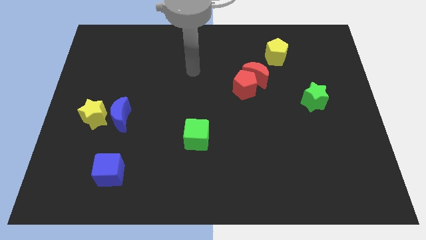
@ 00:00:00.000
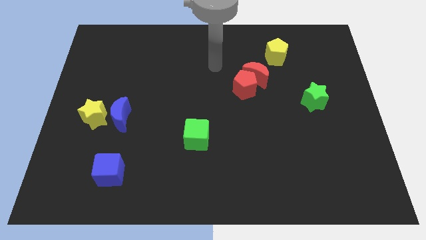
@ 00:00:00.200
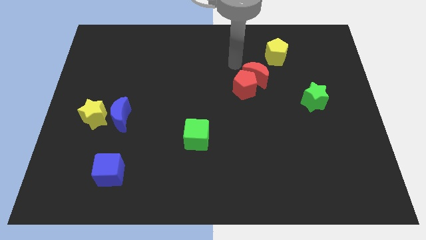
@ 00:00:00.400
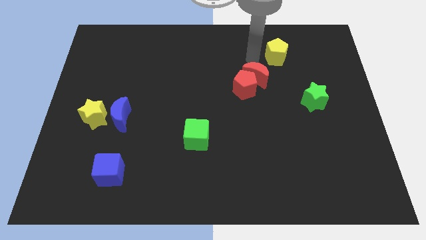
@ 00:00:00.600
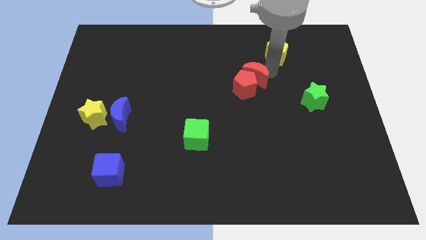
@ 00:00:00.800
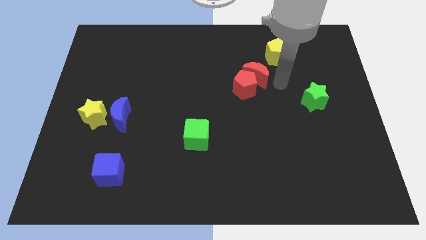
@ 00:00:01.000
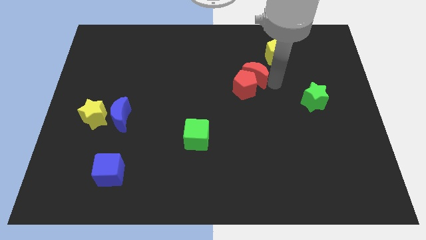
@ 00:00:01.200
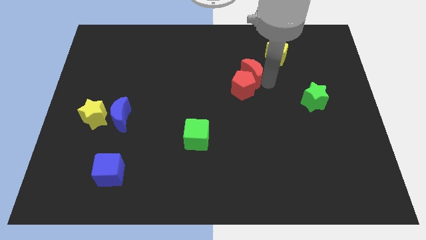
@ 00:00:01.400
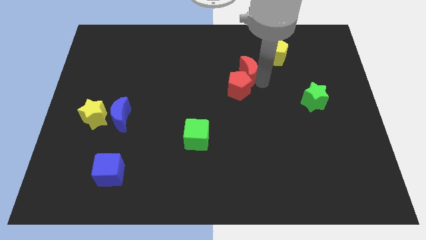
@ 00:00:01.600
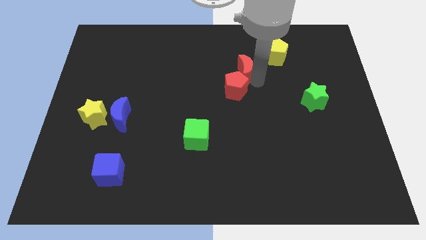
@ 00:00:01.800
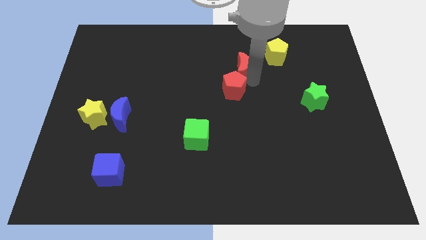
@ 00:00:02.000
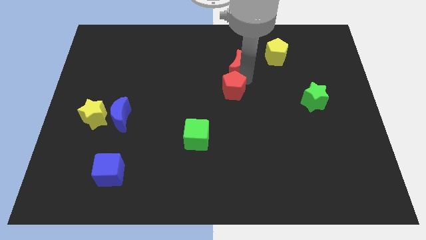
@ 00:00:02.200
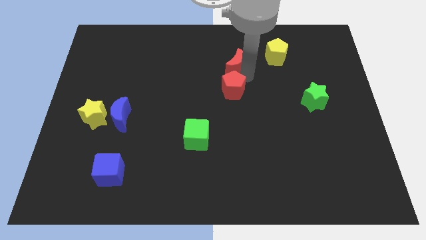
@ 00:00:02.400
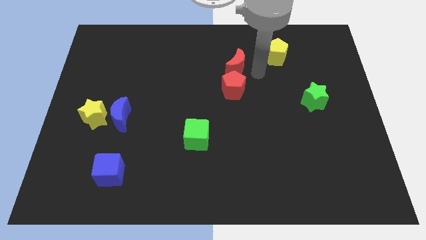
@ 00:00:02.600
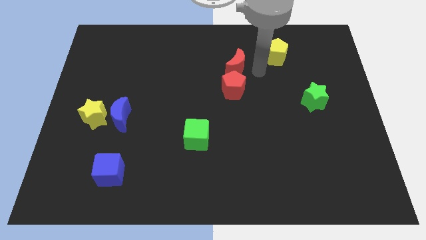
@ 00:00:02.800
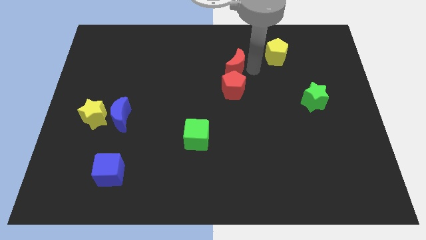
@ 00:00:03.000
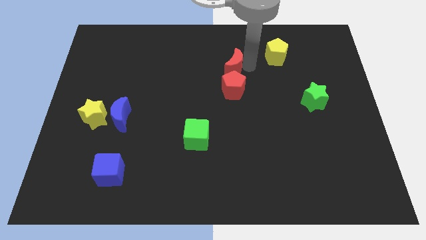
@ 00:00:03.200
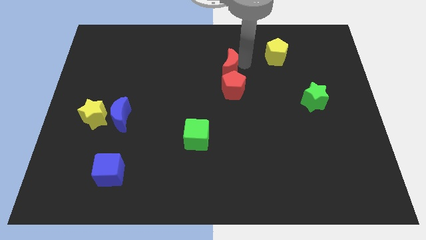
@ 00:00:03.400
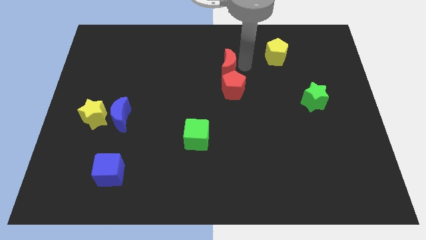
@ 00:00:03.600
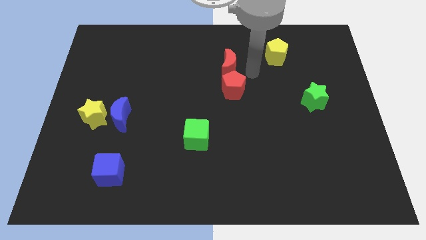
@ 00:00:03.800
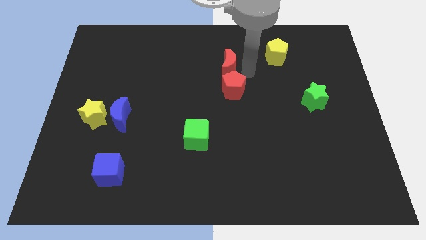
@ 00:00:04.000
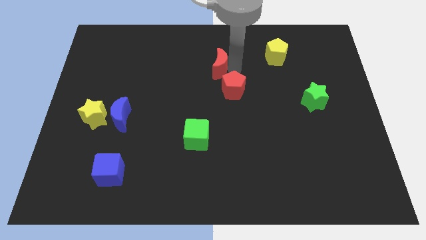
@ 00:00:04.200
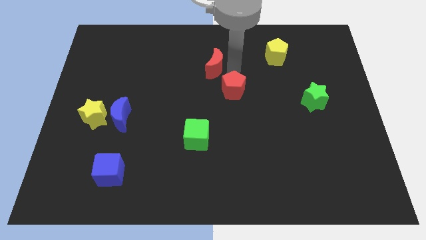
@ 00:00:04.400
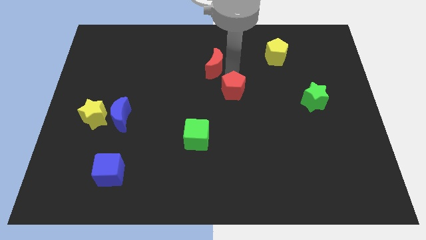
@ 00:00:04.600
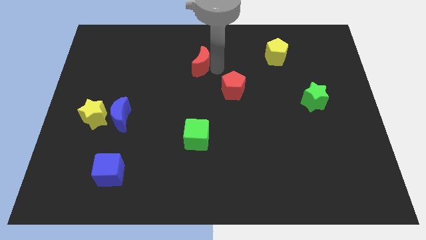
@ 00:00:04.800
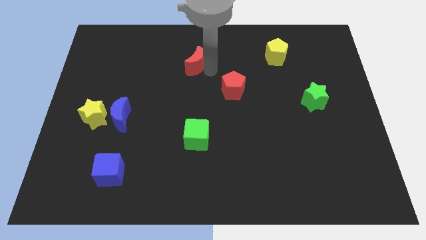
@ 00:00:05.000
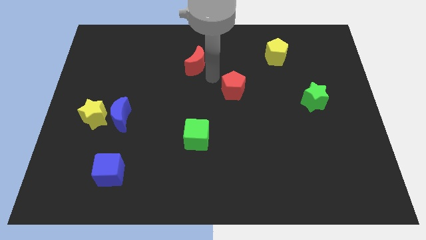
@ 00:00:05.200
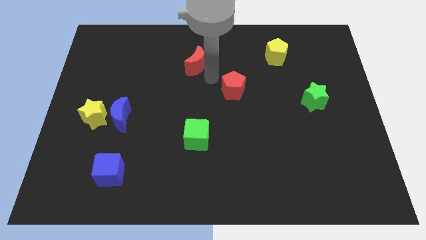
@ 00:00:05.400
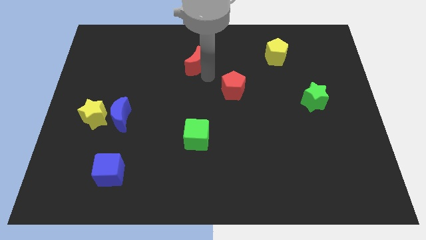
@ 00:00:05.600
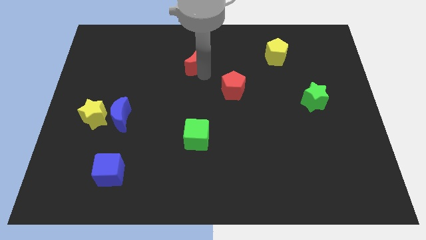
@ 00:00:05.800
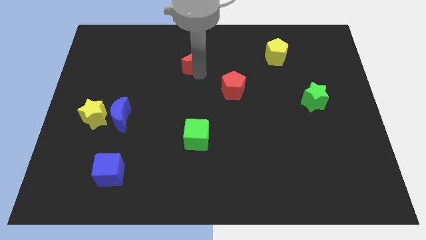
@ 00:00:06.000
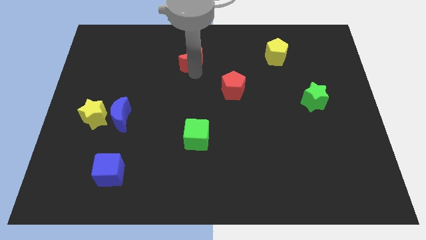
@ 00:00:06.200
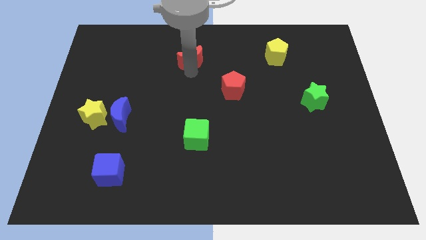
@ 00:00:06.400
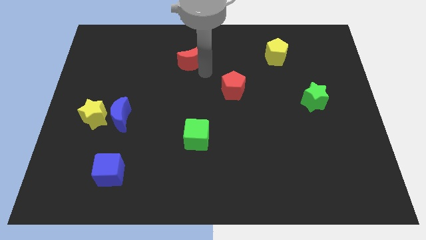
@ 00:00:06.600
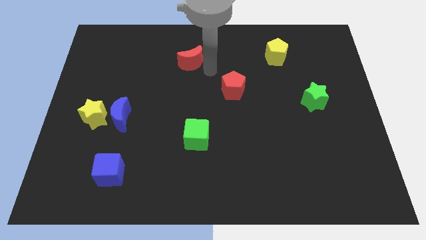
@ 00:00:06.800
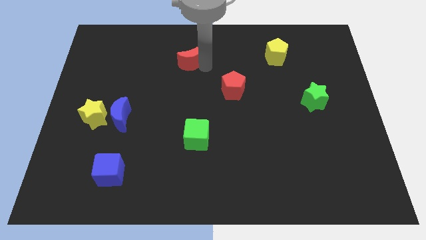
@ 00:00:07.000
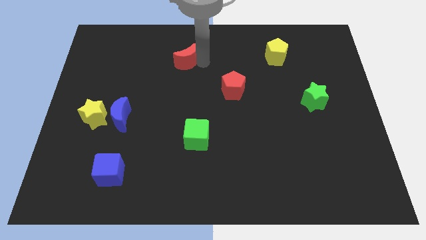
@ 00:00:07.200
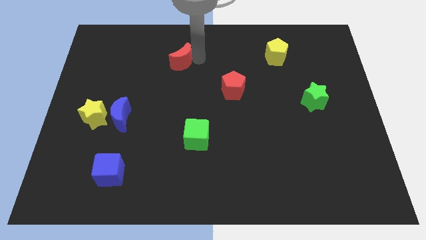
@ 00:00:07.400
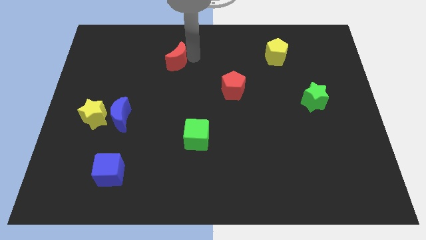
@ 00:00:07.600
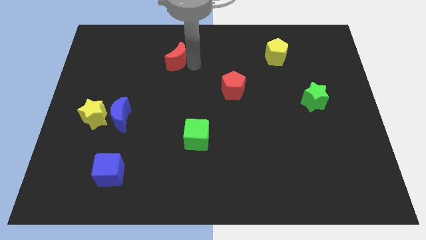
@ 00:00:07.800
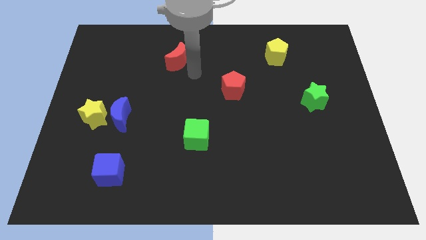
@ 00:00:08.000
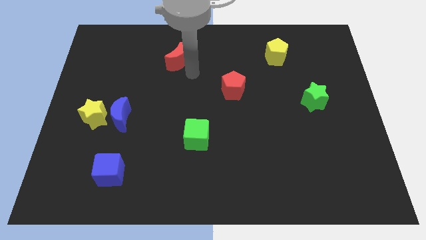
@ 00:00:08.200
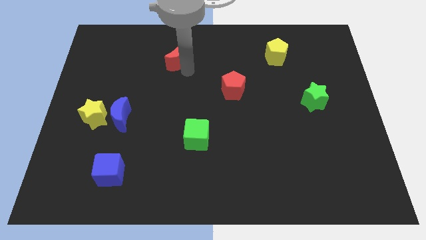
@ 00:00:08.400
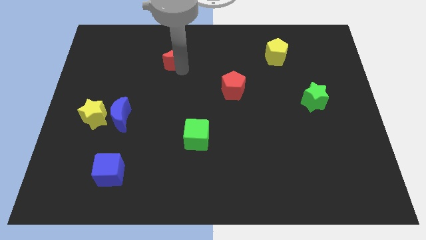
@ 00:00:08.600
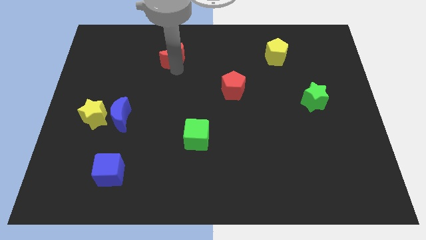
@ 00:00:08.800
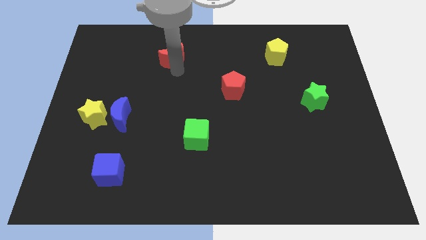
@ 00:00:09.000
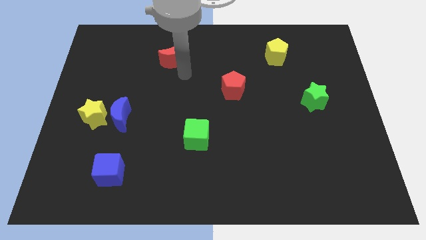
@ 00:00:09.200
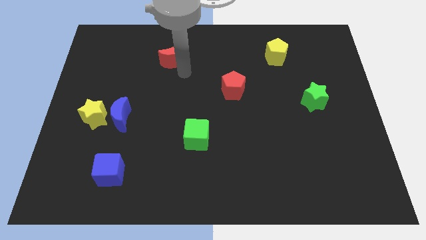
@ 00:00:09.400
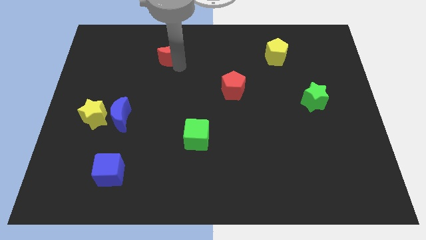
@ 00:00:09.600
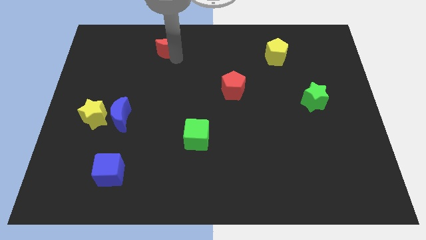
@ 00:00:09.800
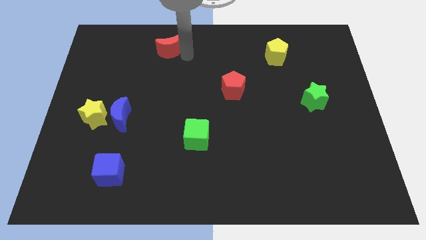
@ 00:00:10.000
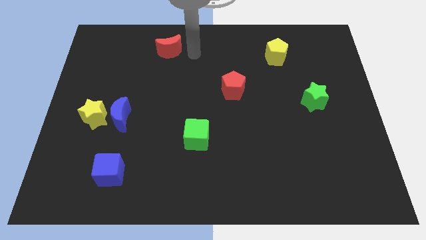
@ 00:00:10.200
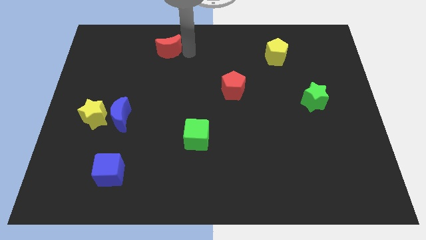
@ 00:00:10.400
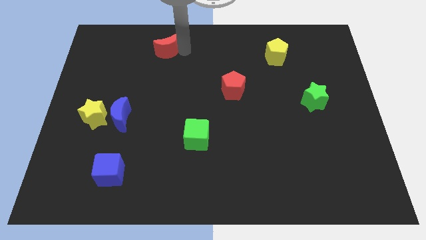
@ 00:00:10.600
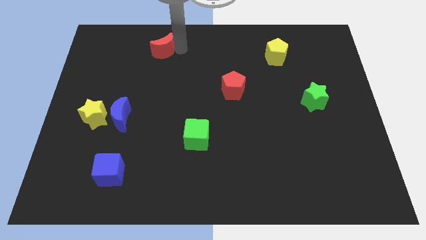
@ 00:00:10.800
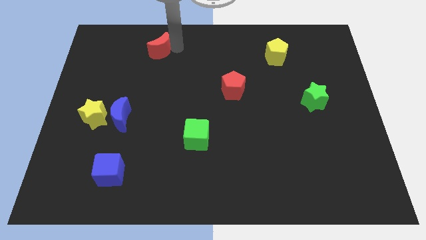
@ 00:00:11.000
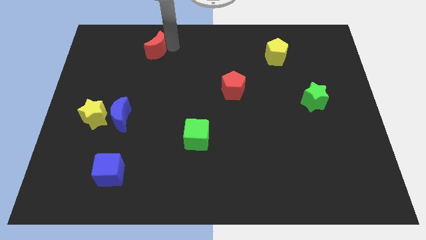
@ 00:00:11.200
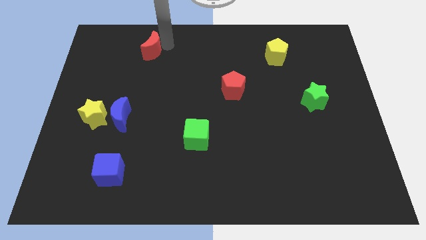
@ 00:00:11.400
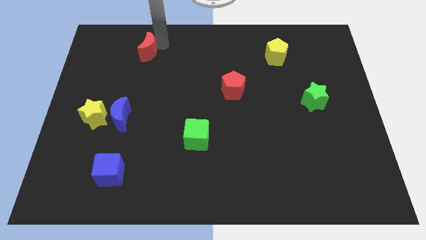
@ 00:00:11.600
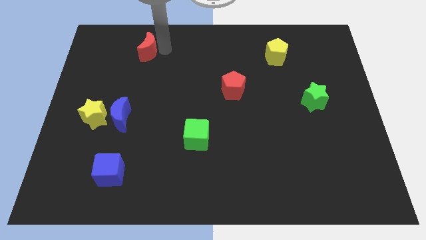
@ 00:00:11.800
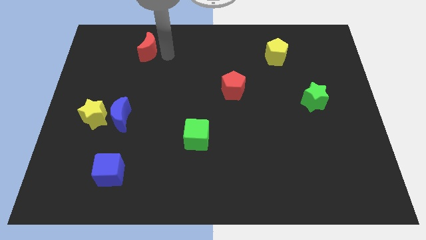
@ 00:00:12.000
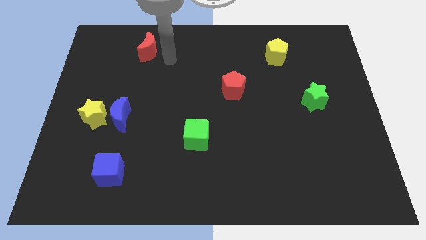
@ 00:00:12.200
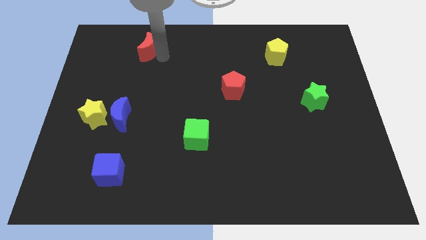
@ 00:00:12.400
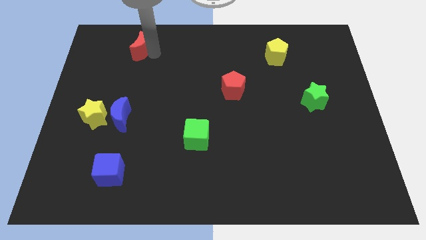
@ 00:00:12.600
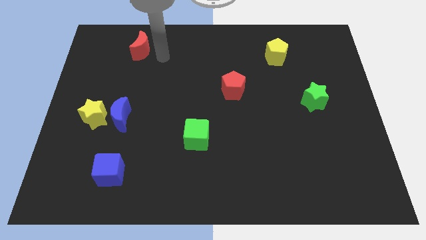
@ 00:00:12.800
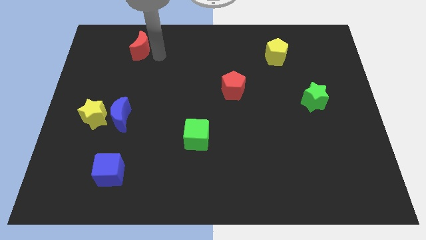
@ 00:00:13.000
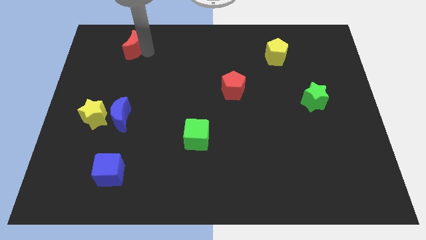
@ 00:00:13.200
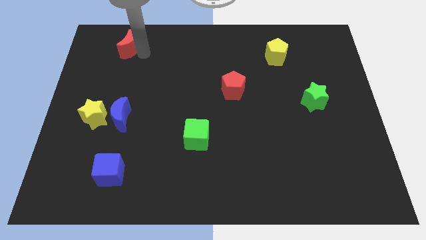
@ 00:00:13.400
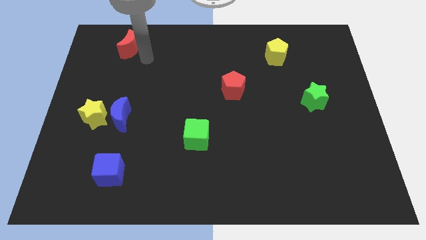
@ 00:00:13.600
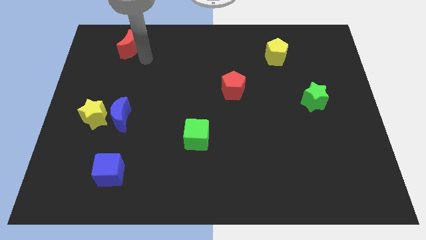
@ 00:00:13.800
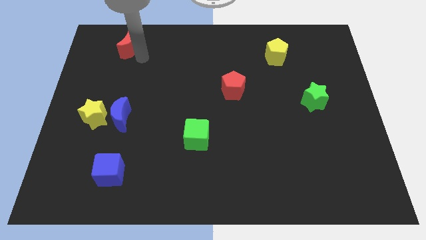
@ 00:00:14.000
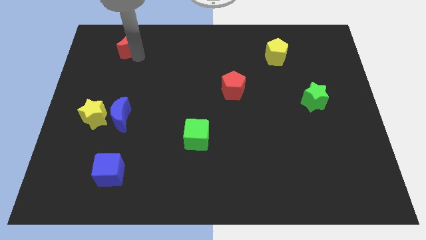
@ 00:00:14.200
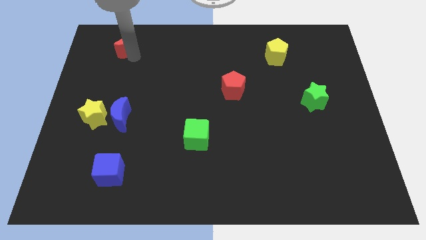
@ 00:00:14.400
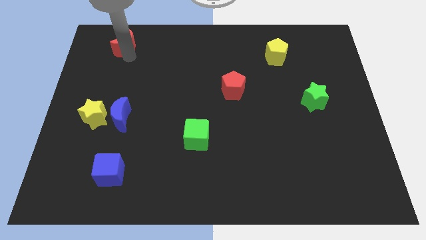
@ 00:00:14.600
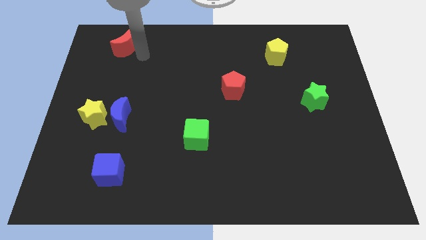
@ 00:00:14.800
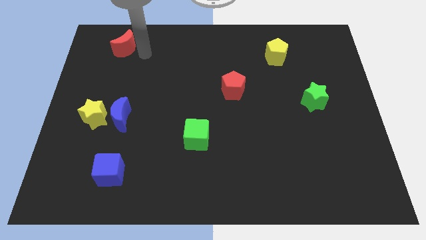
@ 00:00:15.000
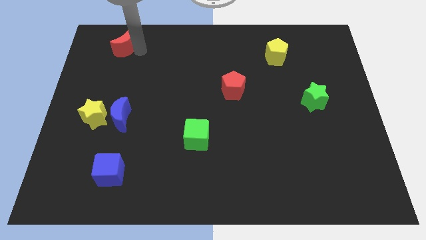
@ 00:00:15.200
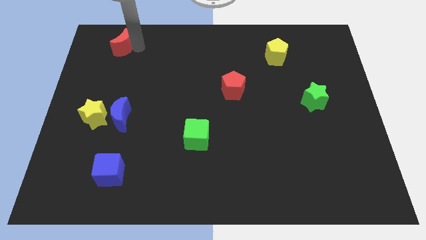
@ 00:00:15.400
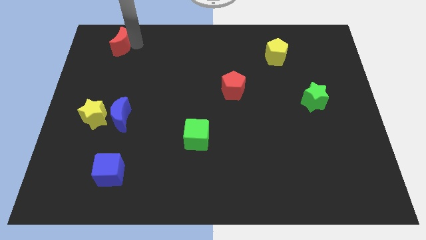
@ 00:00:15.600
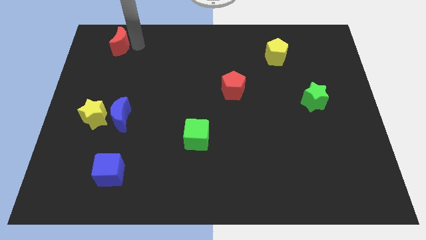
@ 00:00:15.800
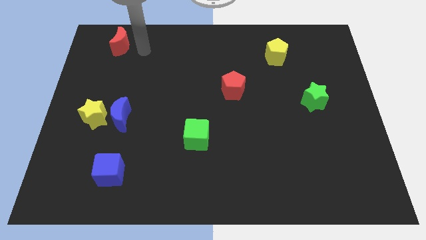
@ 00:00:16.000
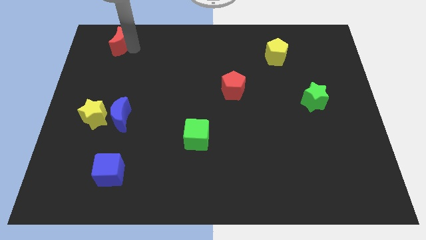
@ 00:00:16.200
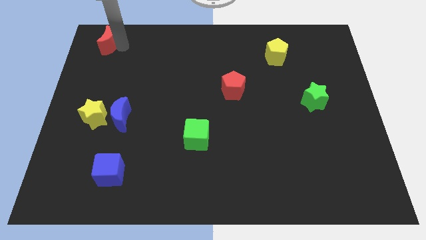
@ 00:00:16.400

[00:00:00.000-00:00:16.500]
push the red moon to the top left corner
